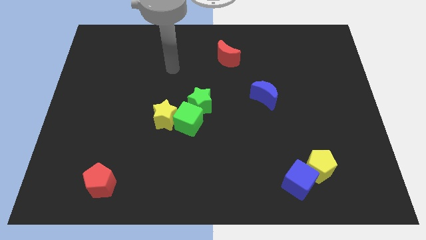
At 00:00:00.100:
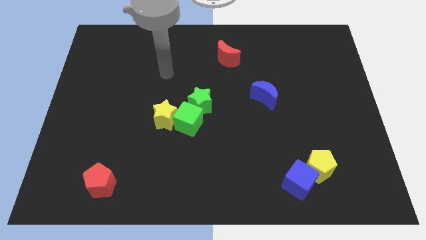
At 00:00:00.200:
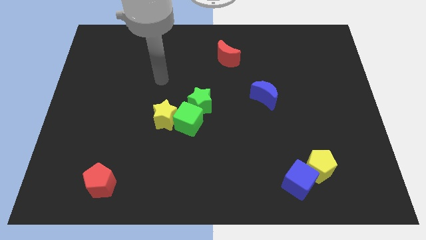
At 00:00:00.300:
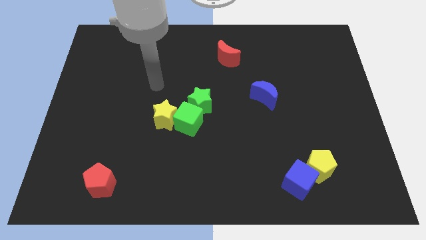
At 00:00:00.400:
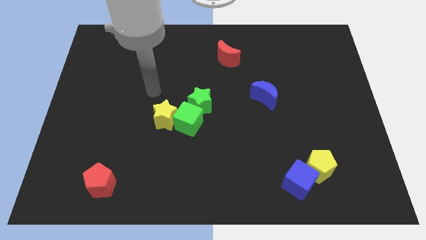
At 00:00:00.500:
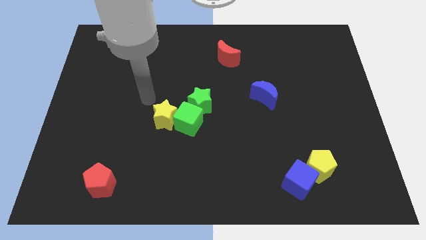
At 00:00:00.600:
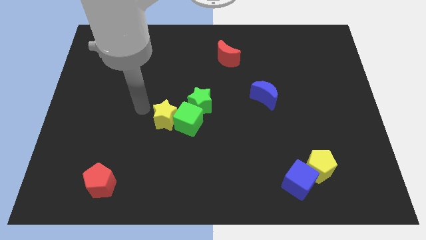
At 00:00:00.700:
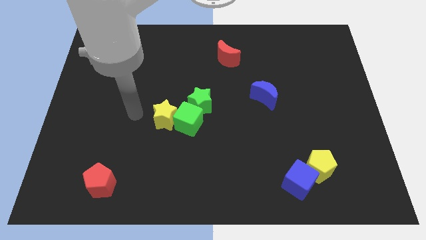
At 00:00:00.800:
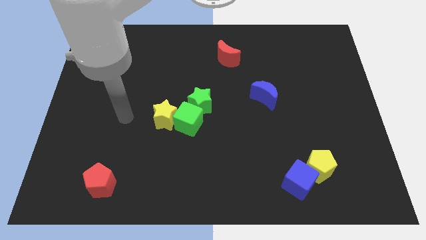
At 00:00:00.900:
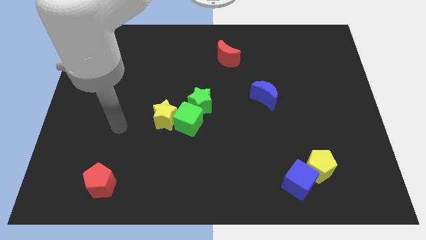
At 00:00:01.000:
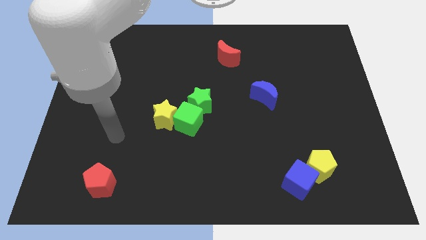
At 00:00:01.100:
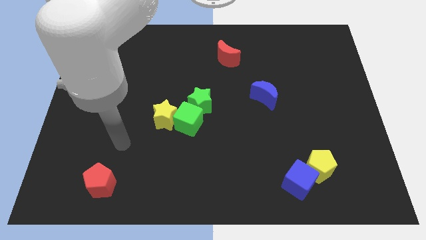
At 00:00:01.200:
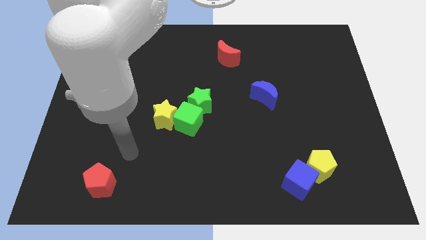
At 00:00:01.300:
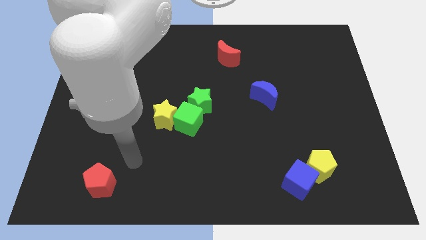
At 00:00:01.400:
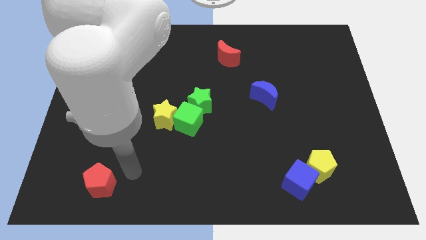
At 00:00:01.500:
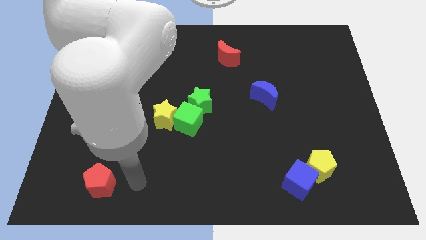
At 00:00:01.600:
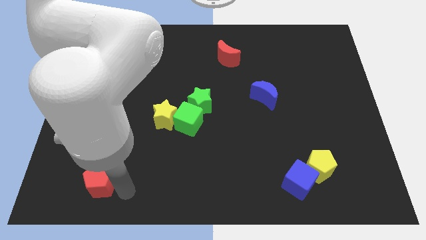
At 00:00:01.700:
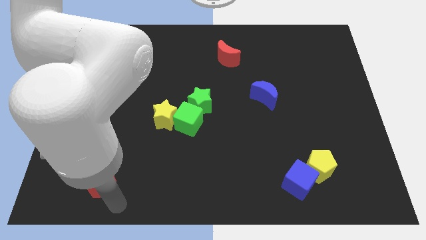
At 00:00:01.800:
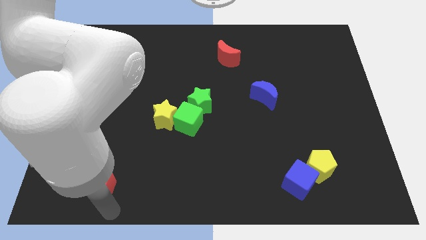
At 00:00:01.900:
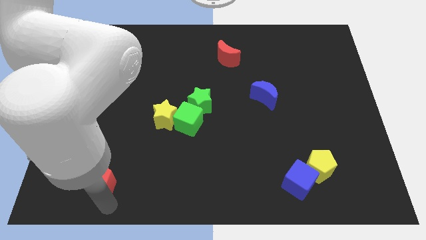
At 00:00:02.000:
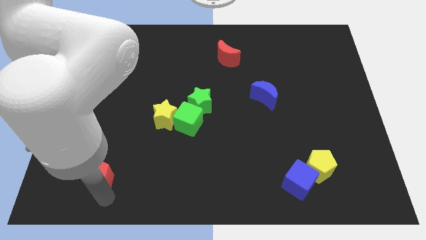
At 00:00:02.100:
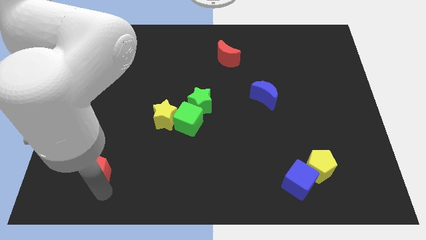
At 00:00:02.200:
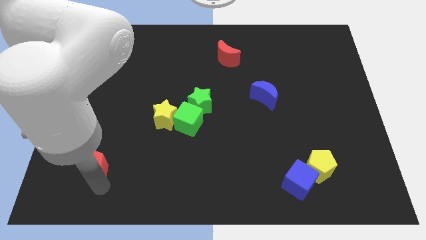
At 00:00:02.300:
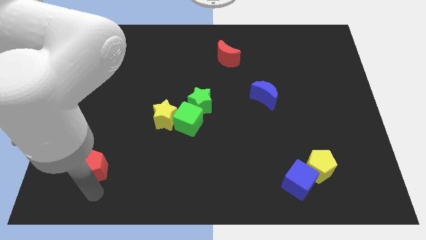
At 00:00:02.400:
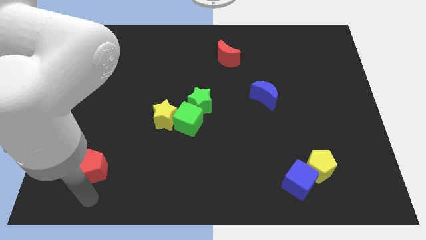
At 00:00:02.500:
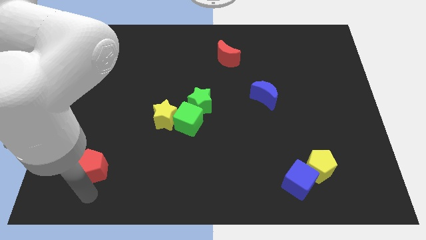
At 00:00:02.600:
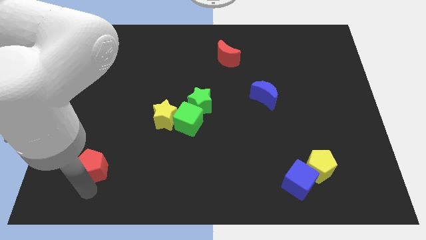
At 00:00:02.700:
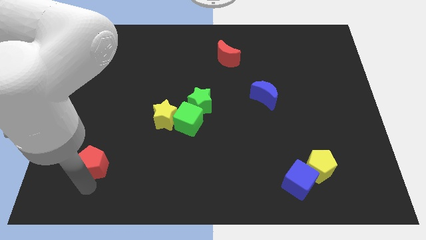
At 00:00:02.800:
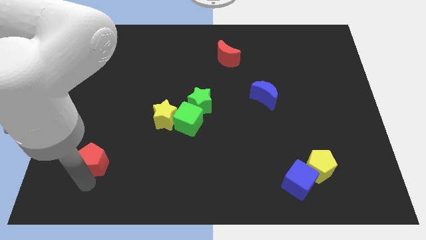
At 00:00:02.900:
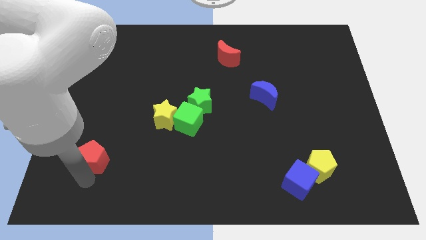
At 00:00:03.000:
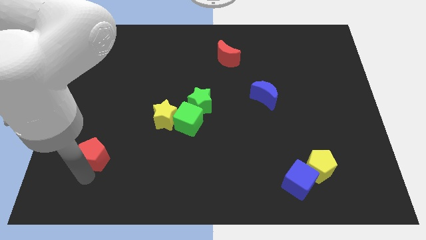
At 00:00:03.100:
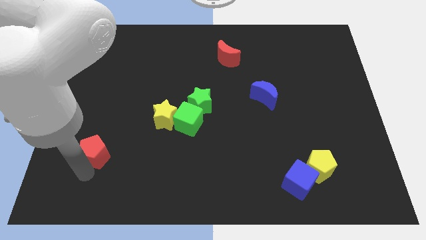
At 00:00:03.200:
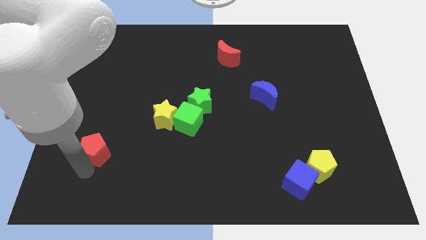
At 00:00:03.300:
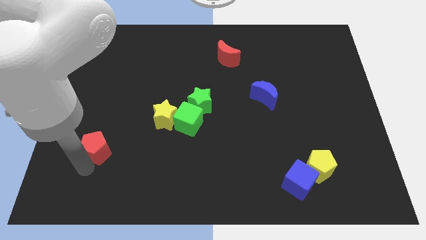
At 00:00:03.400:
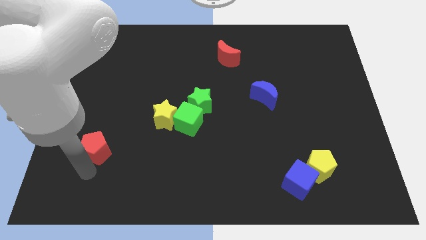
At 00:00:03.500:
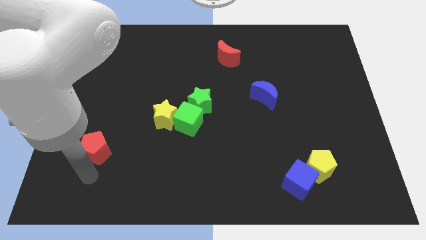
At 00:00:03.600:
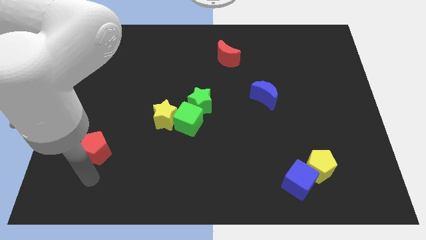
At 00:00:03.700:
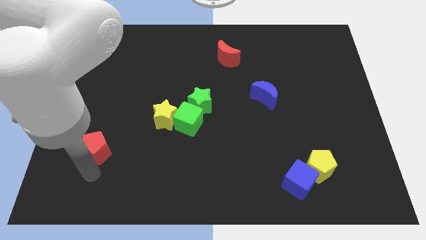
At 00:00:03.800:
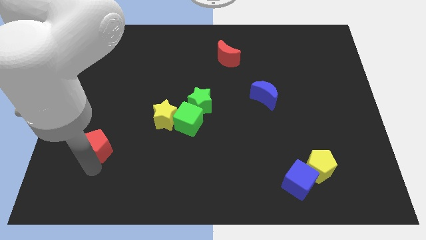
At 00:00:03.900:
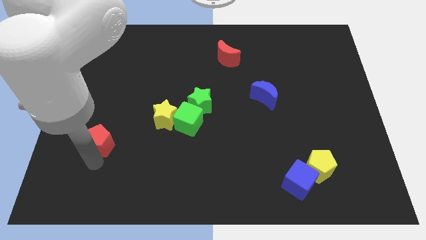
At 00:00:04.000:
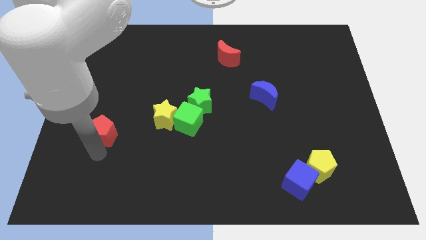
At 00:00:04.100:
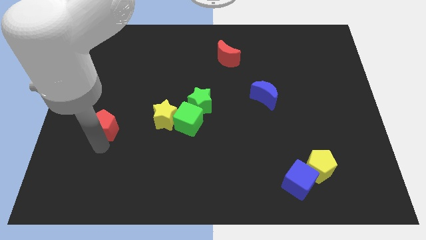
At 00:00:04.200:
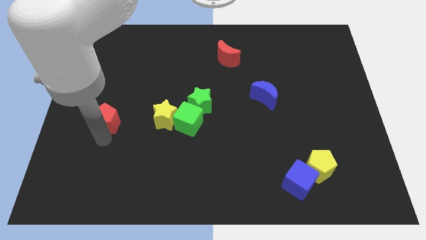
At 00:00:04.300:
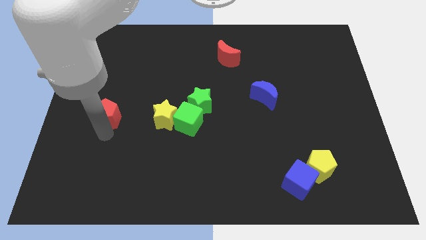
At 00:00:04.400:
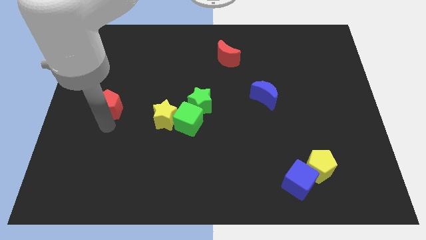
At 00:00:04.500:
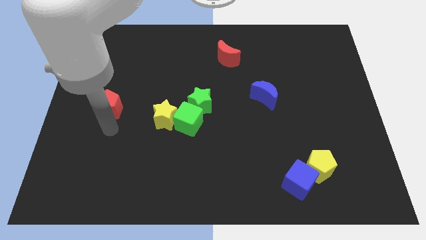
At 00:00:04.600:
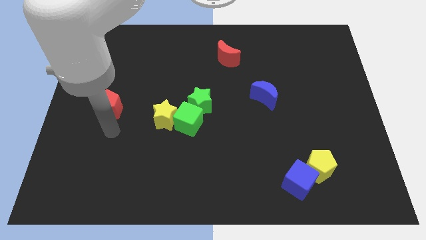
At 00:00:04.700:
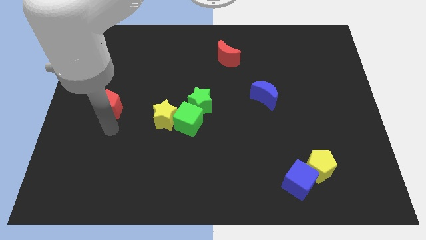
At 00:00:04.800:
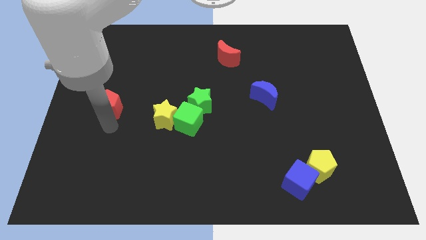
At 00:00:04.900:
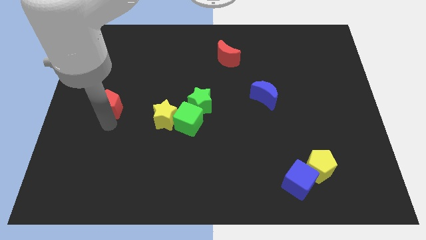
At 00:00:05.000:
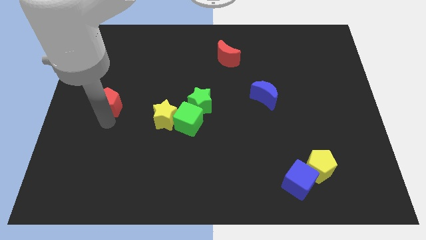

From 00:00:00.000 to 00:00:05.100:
slide the red pentagon up

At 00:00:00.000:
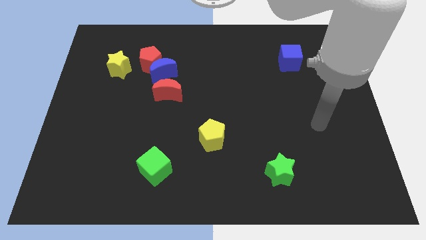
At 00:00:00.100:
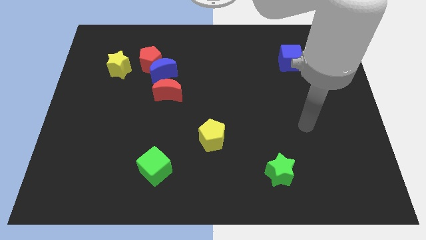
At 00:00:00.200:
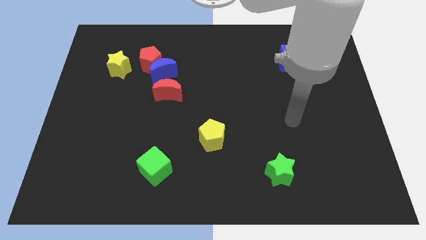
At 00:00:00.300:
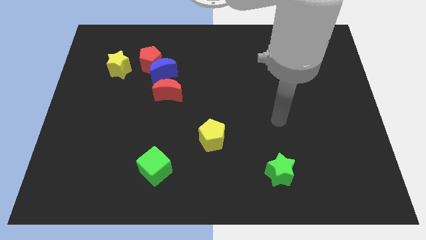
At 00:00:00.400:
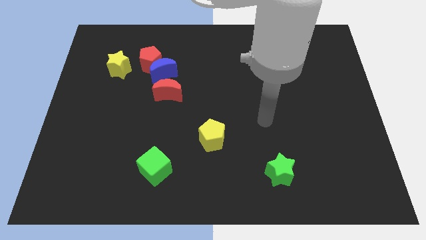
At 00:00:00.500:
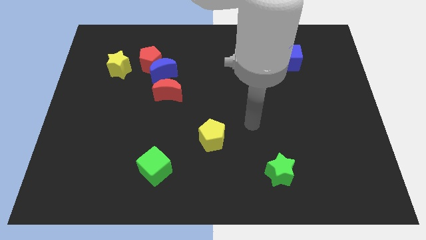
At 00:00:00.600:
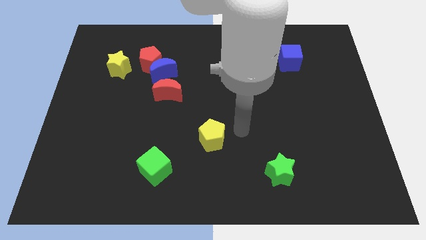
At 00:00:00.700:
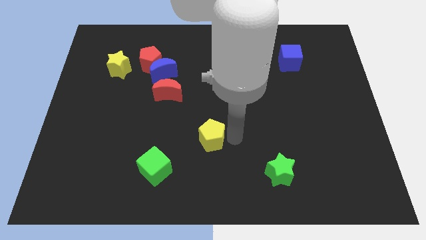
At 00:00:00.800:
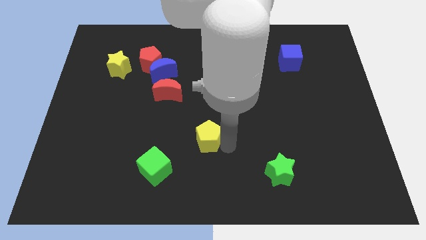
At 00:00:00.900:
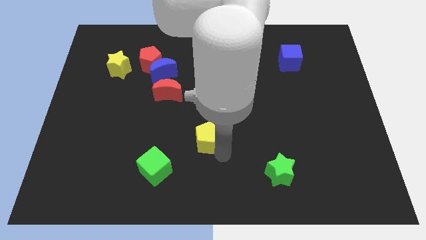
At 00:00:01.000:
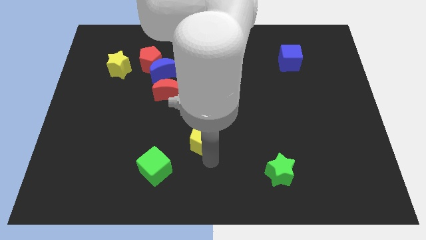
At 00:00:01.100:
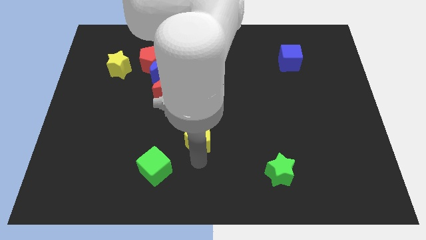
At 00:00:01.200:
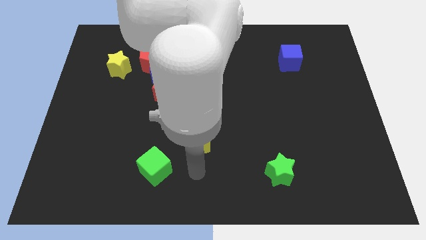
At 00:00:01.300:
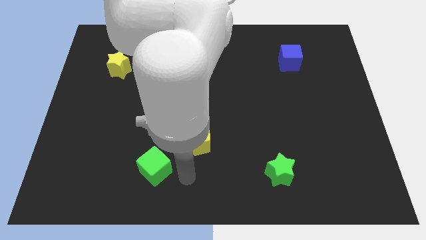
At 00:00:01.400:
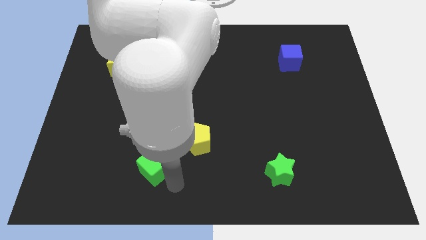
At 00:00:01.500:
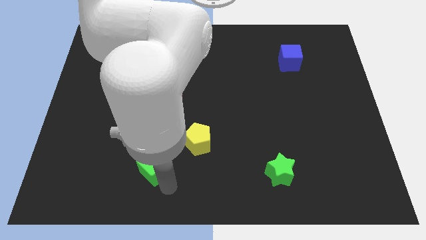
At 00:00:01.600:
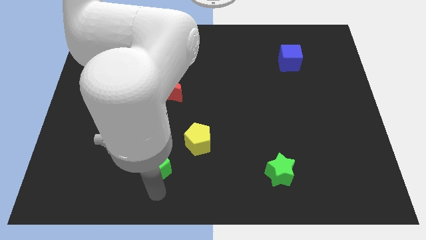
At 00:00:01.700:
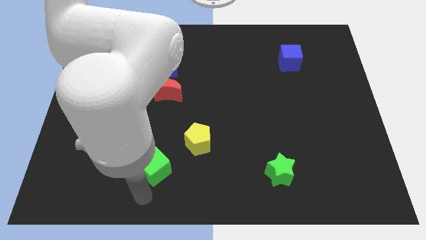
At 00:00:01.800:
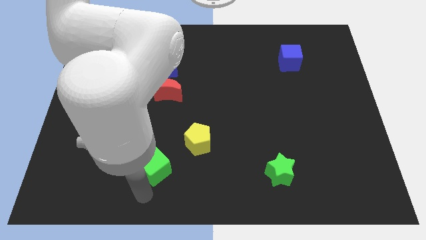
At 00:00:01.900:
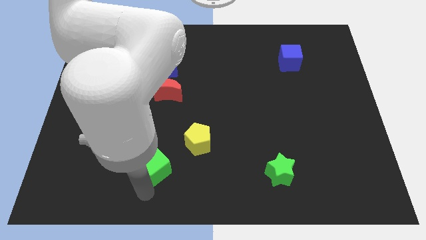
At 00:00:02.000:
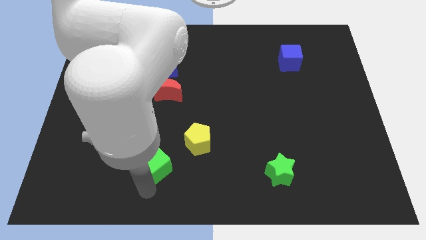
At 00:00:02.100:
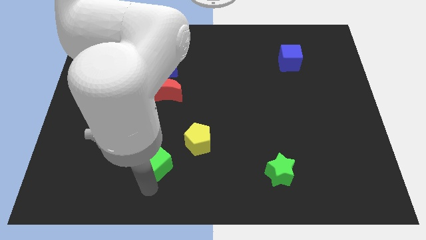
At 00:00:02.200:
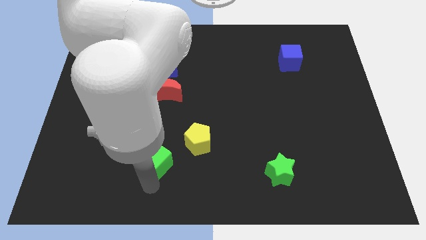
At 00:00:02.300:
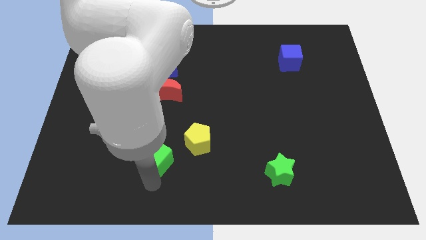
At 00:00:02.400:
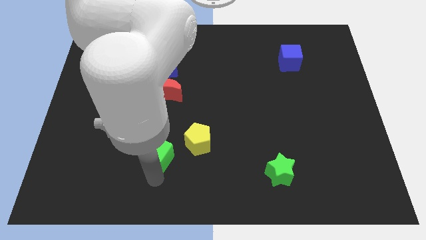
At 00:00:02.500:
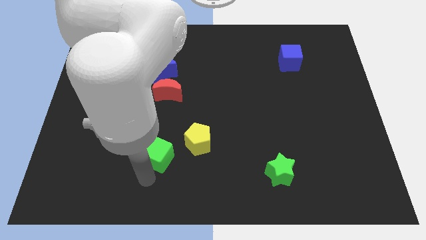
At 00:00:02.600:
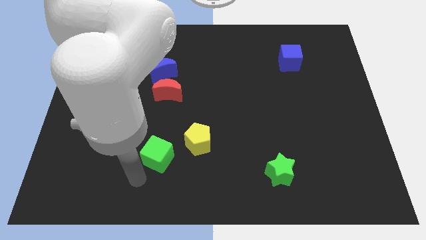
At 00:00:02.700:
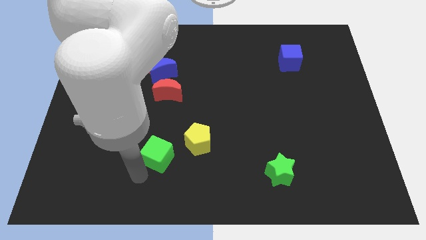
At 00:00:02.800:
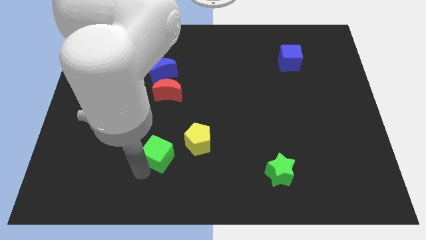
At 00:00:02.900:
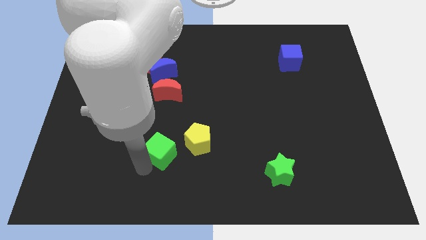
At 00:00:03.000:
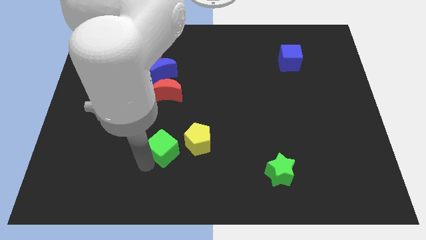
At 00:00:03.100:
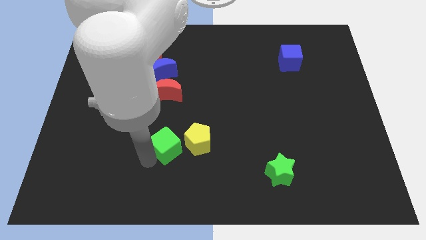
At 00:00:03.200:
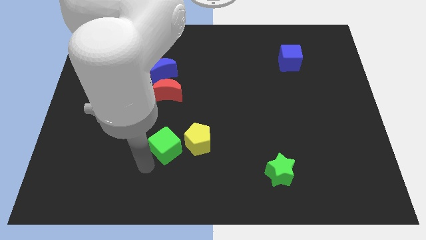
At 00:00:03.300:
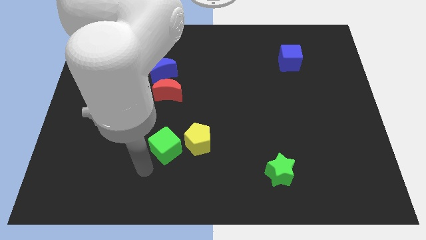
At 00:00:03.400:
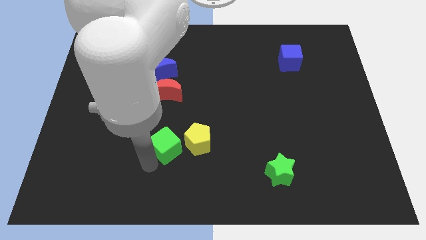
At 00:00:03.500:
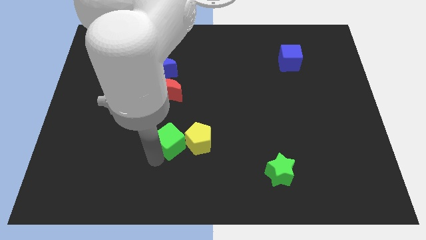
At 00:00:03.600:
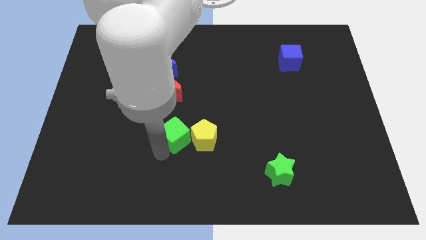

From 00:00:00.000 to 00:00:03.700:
slide the green cube diagonally up and to the right a little bit
